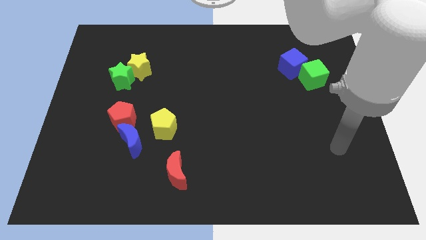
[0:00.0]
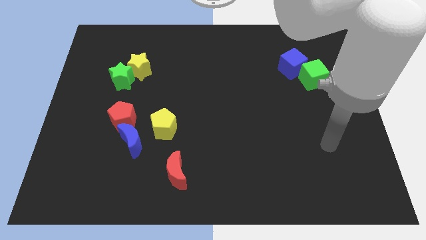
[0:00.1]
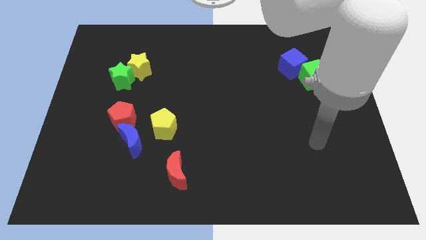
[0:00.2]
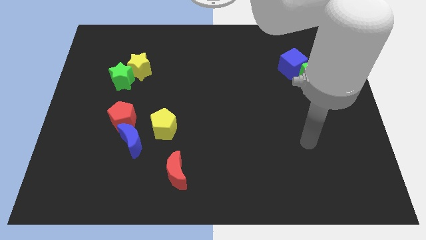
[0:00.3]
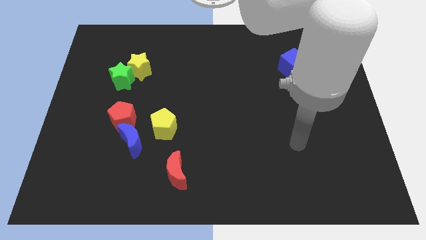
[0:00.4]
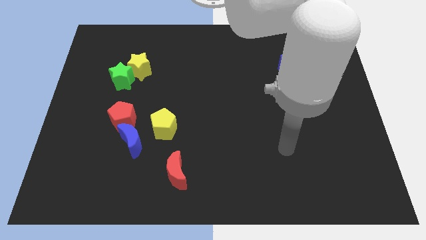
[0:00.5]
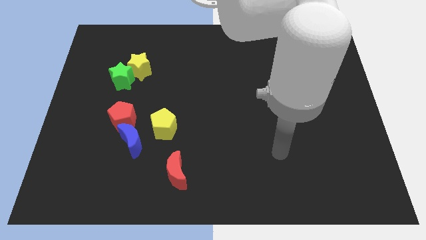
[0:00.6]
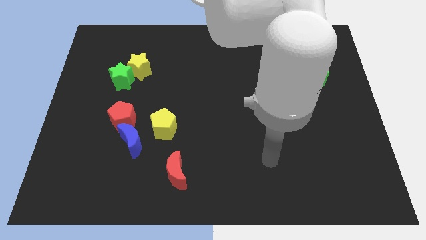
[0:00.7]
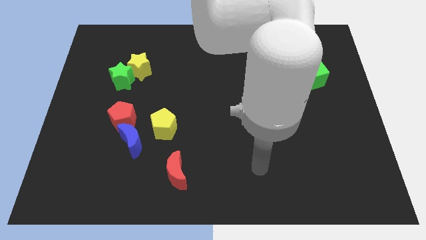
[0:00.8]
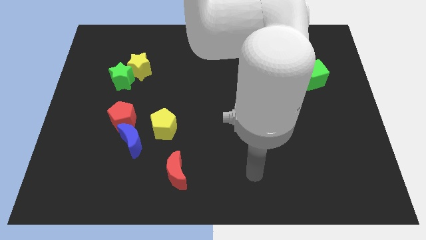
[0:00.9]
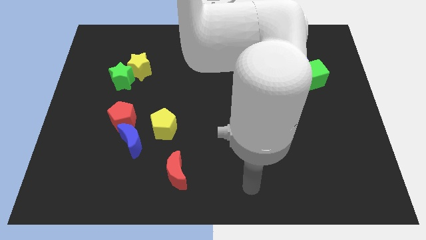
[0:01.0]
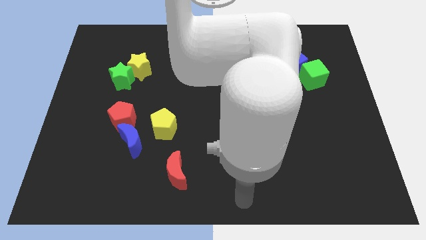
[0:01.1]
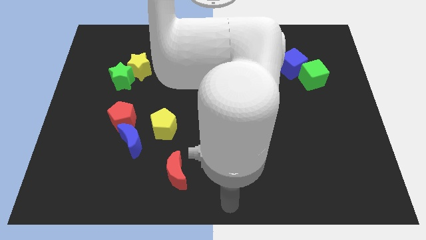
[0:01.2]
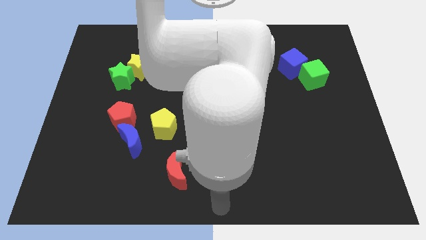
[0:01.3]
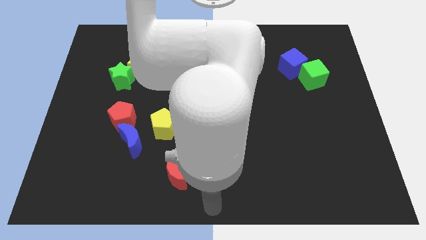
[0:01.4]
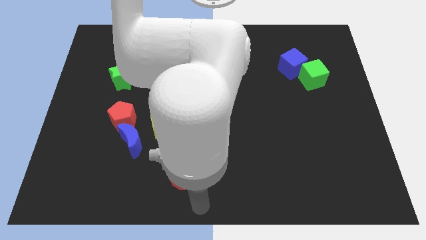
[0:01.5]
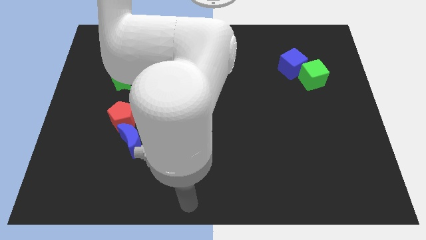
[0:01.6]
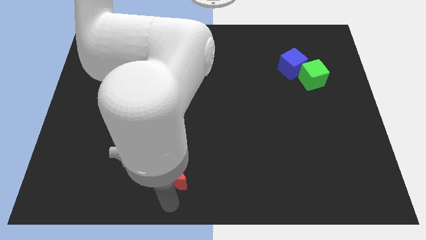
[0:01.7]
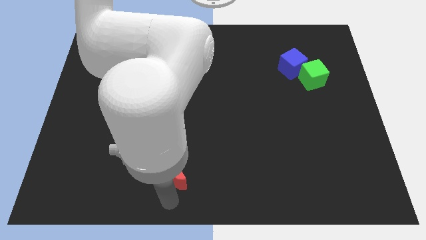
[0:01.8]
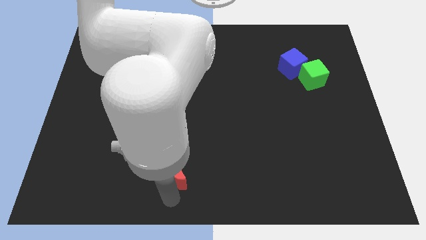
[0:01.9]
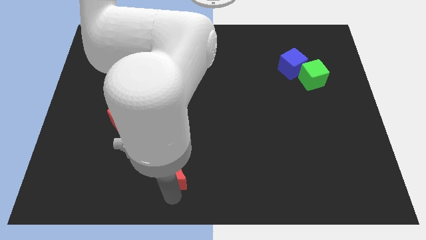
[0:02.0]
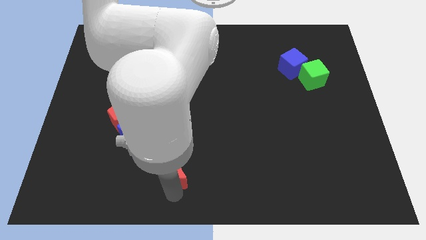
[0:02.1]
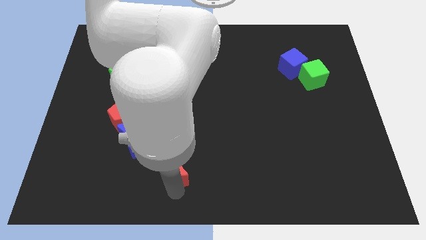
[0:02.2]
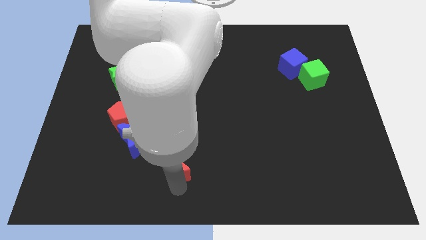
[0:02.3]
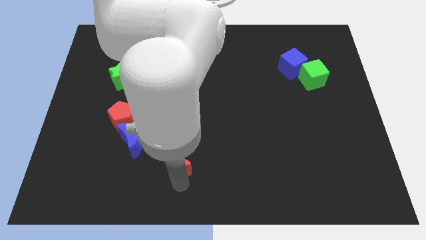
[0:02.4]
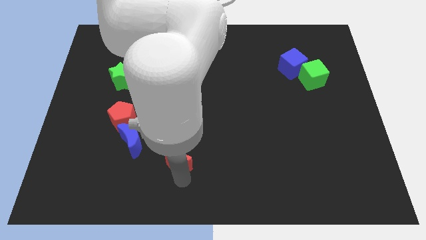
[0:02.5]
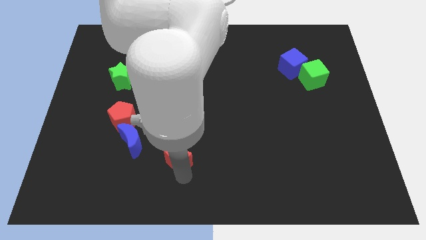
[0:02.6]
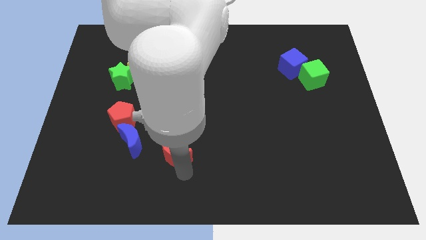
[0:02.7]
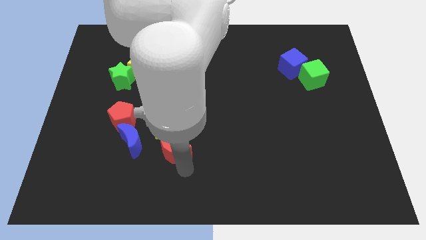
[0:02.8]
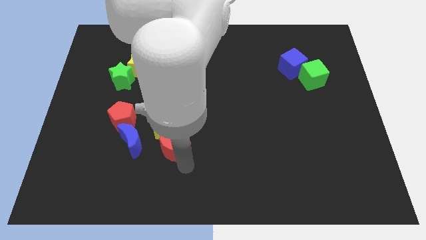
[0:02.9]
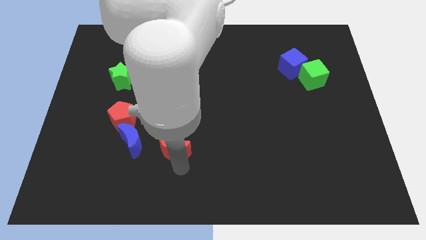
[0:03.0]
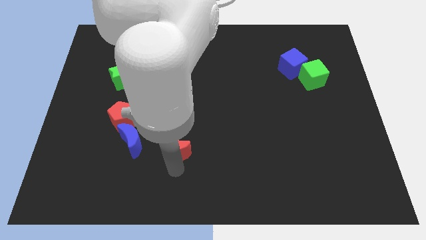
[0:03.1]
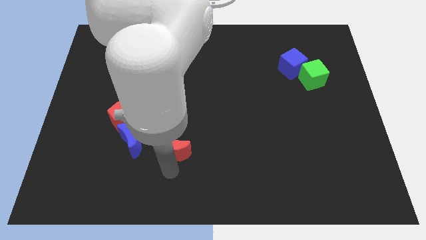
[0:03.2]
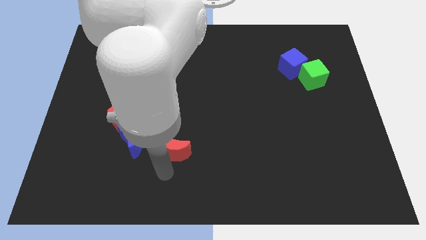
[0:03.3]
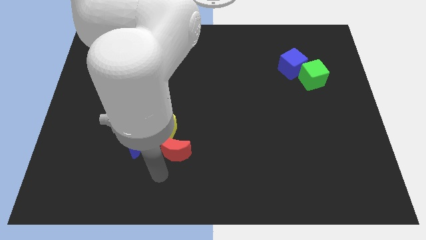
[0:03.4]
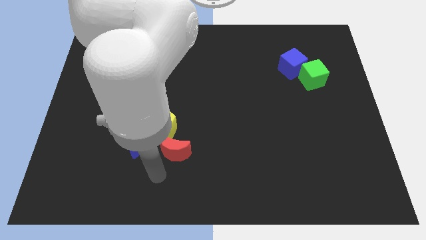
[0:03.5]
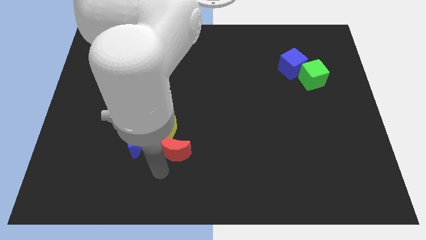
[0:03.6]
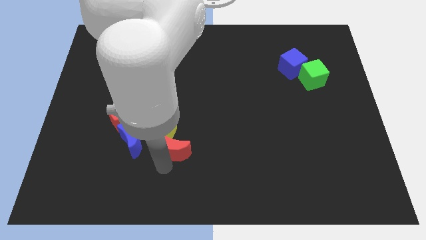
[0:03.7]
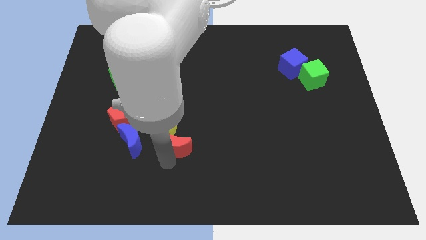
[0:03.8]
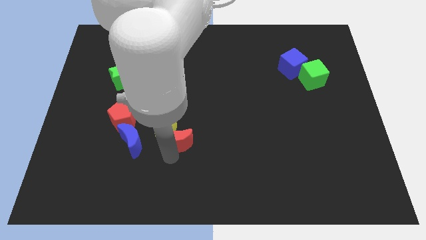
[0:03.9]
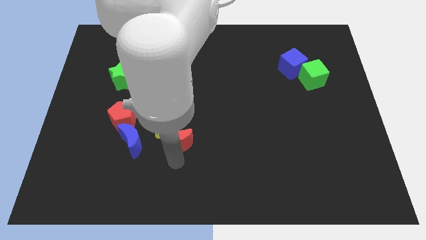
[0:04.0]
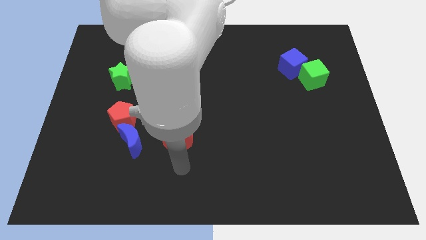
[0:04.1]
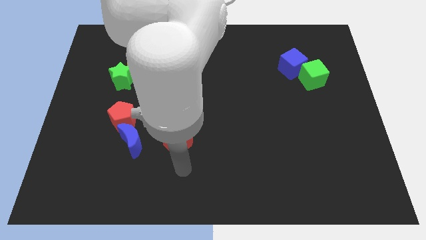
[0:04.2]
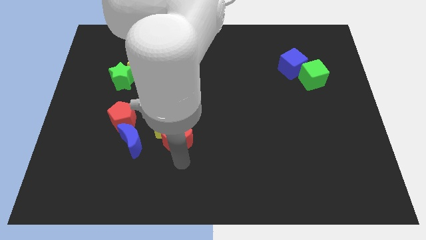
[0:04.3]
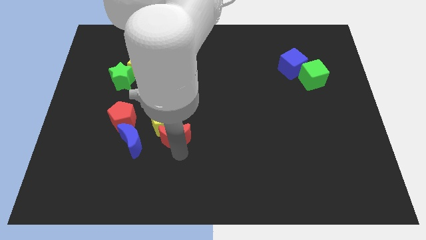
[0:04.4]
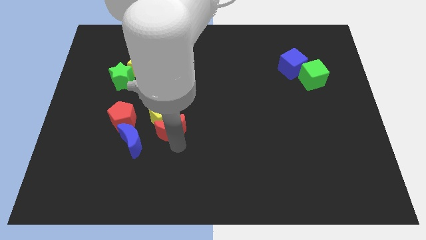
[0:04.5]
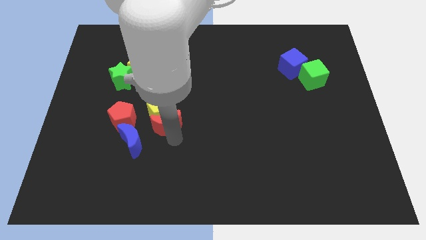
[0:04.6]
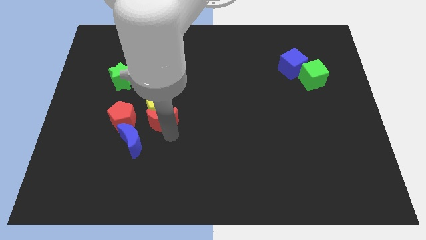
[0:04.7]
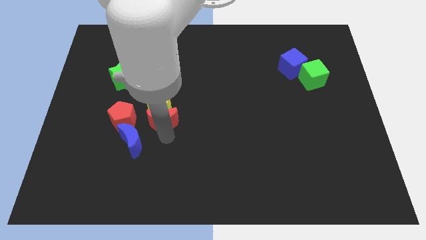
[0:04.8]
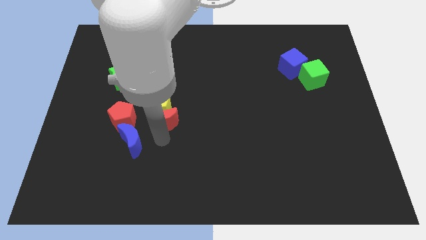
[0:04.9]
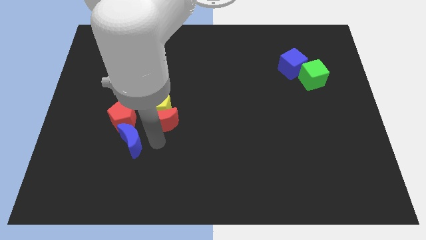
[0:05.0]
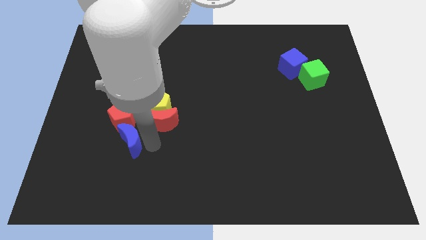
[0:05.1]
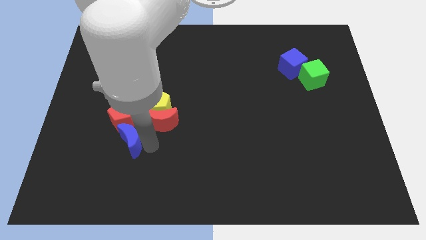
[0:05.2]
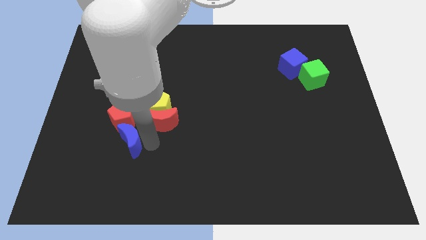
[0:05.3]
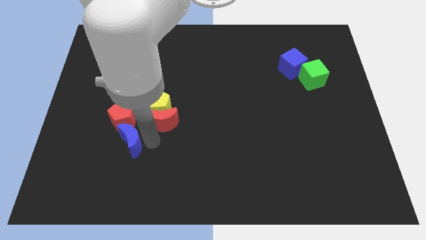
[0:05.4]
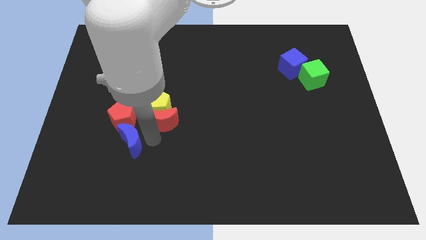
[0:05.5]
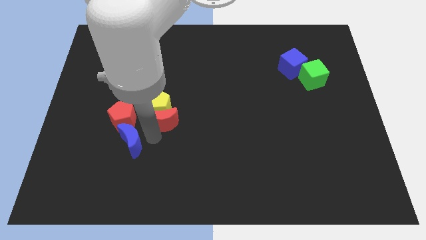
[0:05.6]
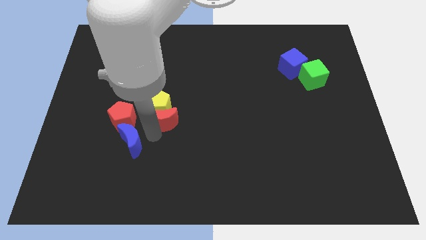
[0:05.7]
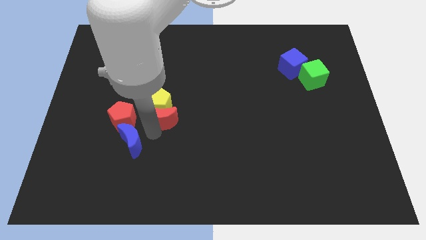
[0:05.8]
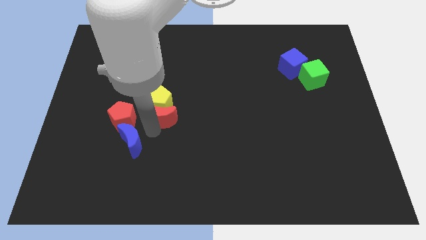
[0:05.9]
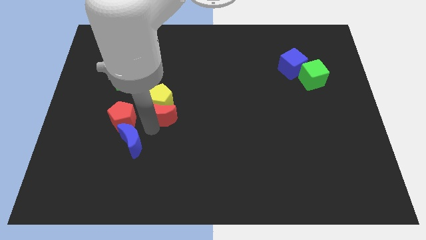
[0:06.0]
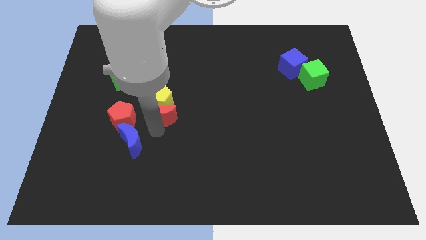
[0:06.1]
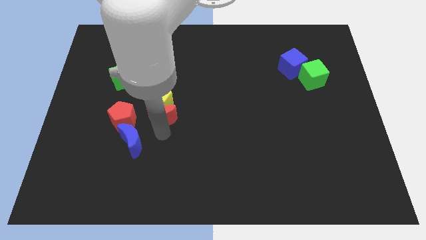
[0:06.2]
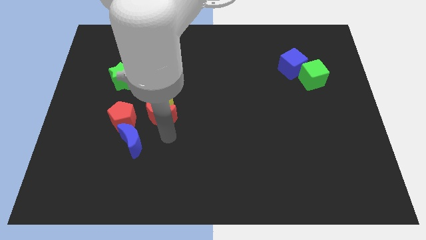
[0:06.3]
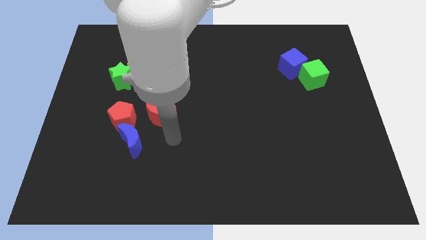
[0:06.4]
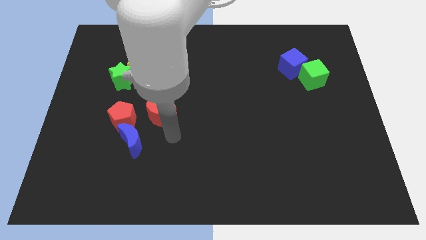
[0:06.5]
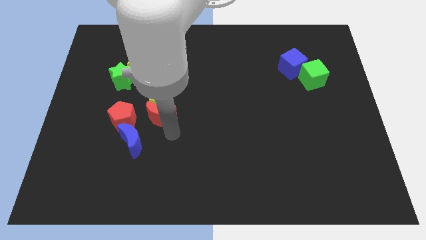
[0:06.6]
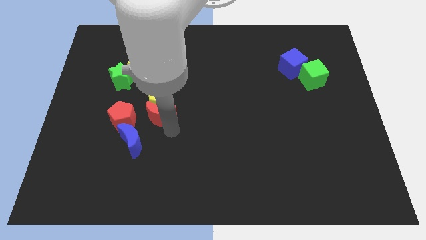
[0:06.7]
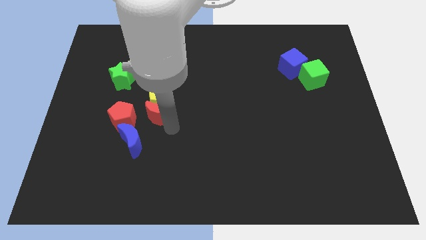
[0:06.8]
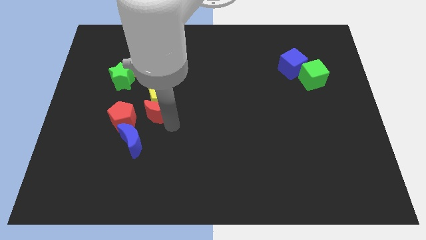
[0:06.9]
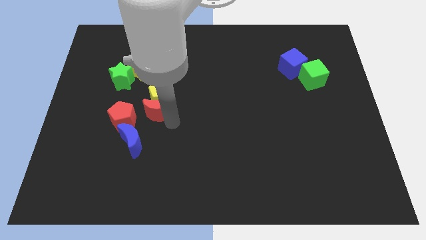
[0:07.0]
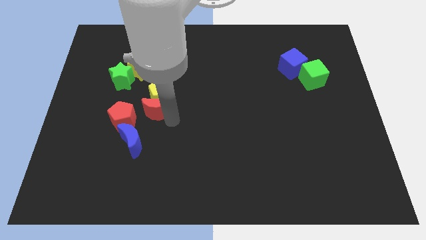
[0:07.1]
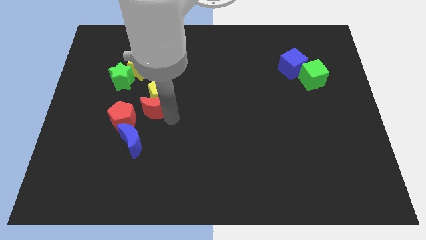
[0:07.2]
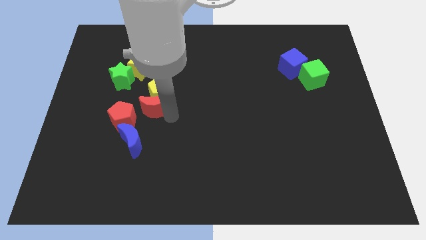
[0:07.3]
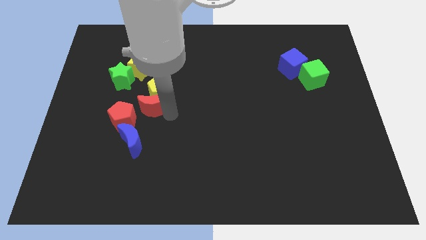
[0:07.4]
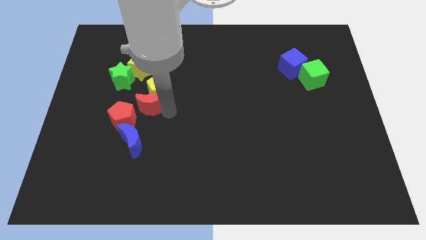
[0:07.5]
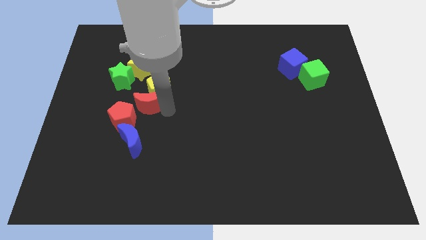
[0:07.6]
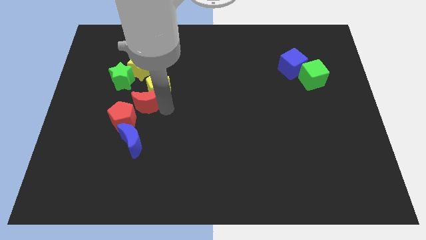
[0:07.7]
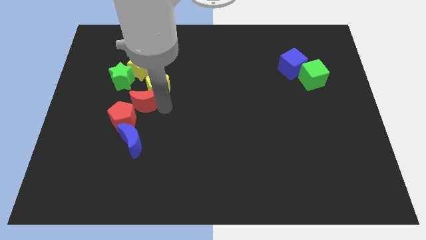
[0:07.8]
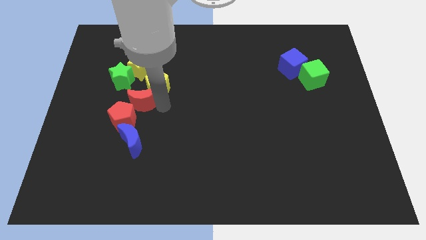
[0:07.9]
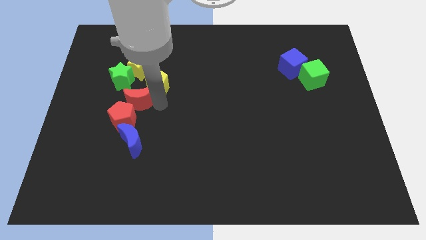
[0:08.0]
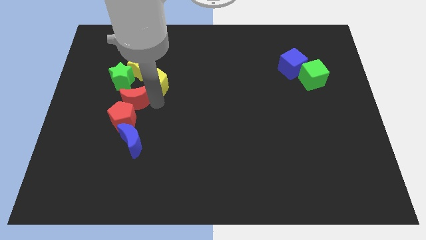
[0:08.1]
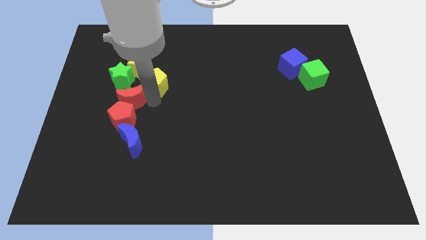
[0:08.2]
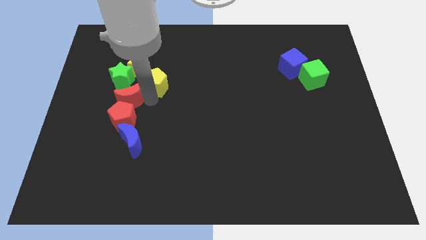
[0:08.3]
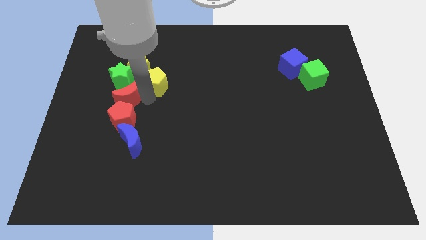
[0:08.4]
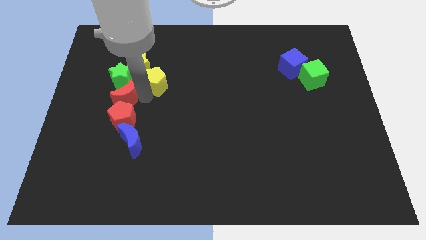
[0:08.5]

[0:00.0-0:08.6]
push the red moon towards the green star
